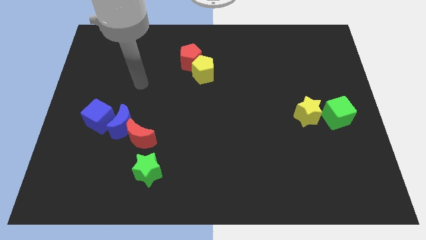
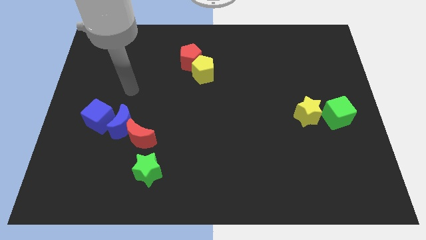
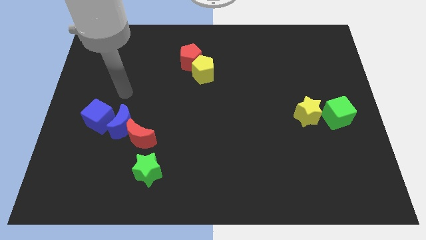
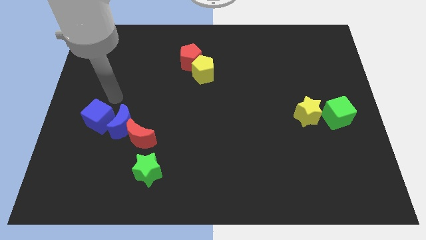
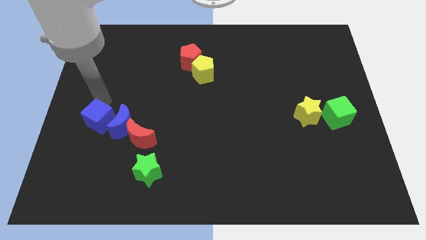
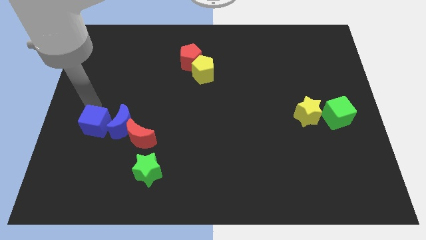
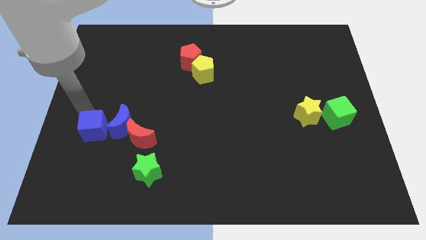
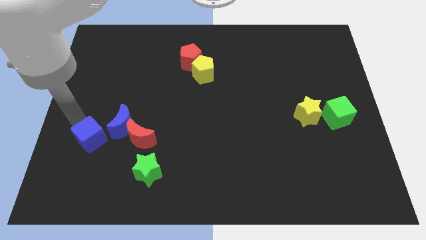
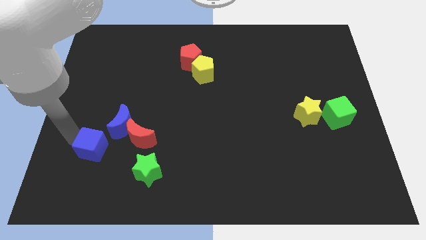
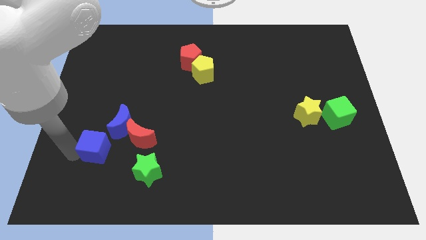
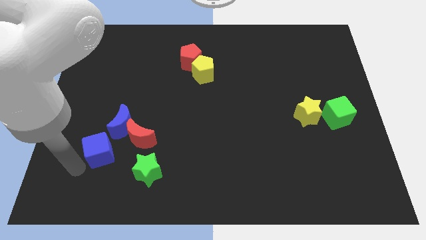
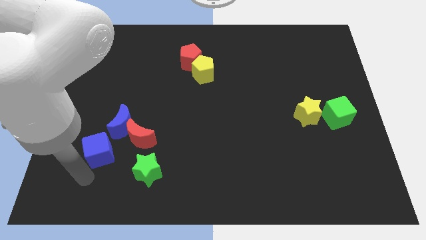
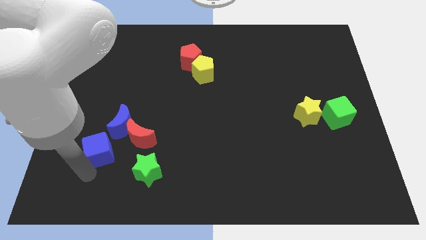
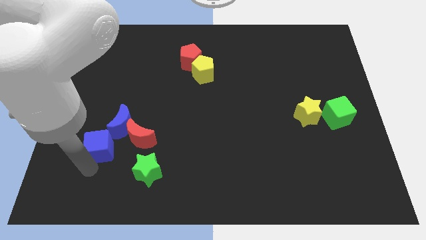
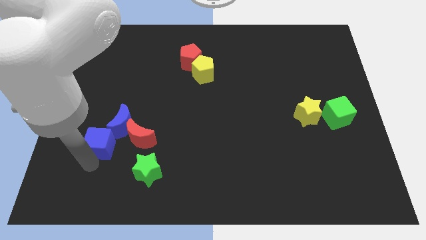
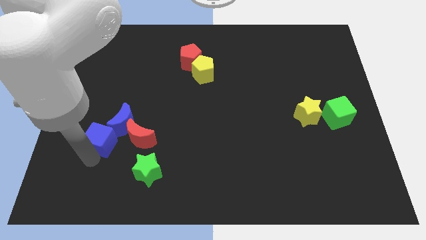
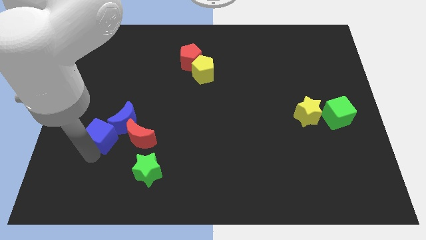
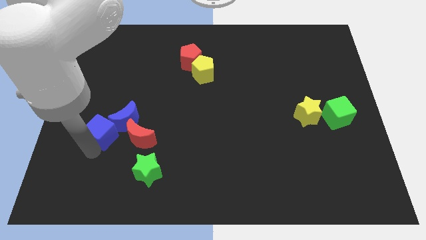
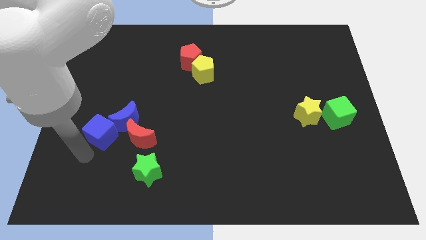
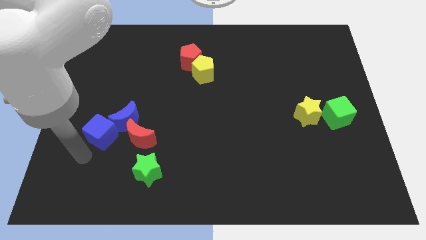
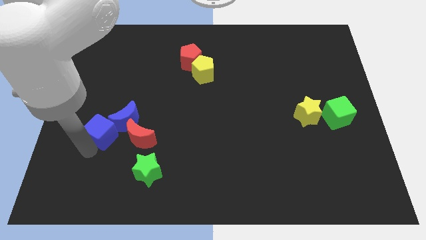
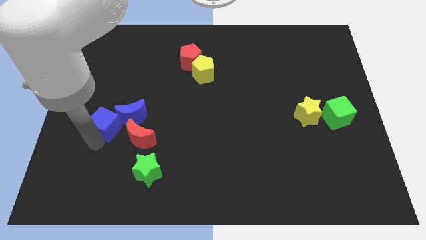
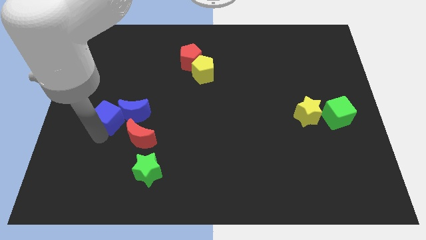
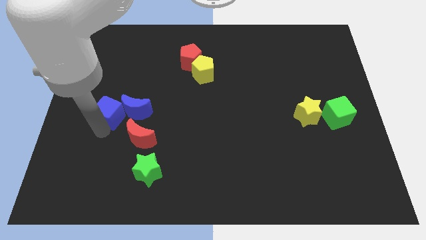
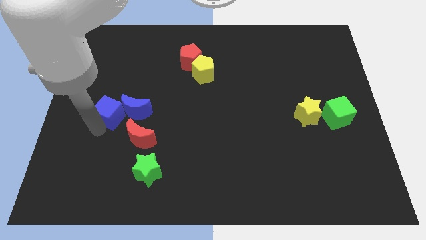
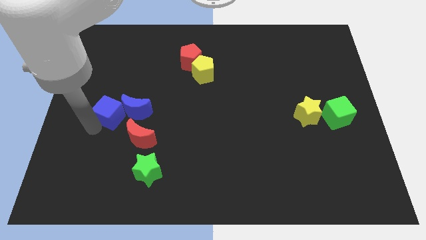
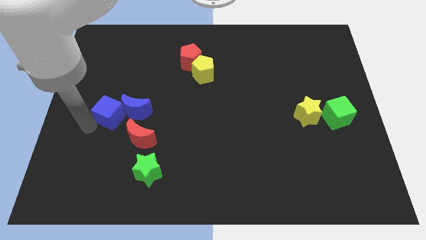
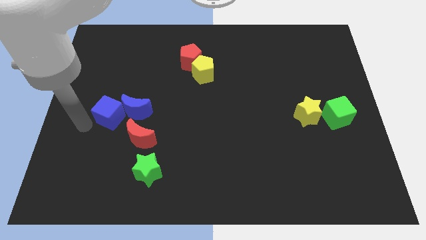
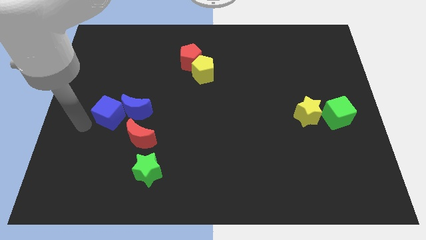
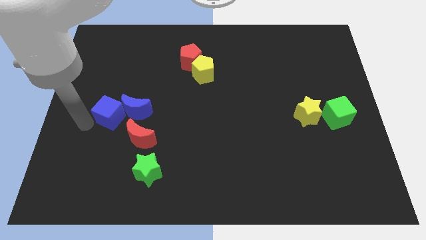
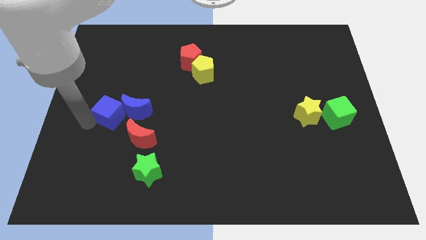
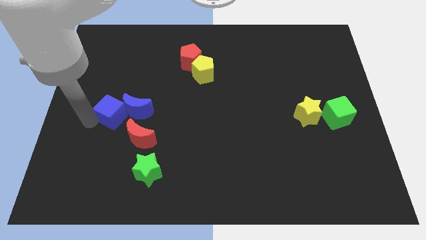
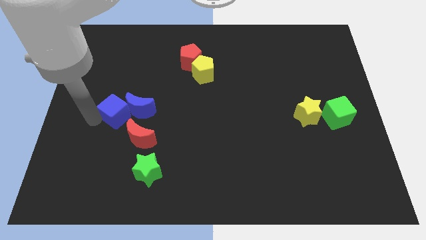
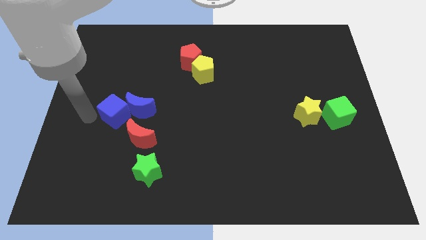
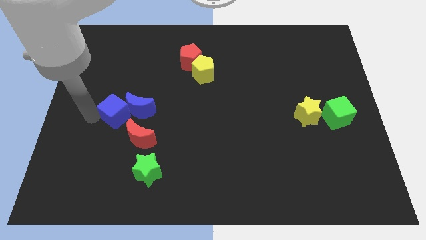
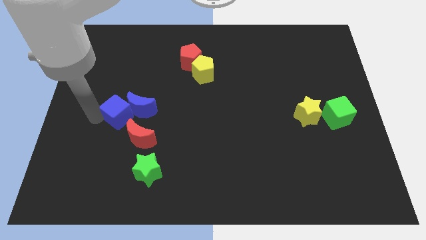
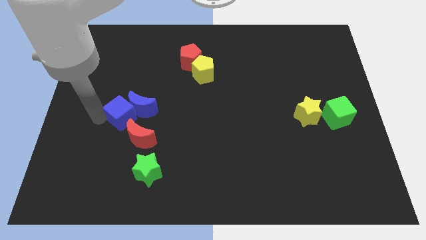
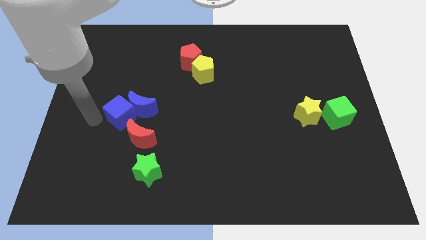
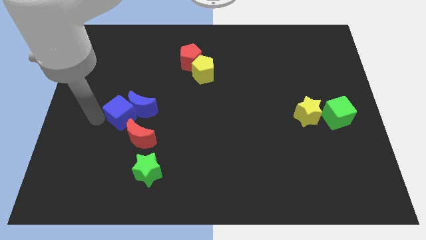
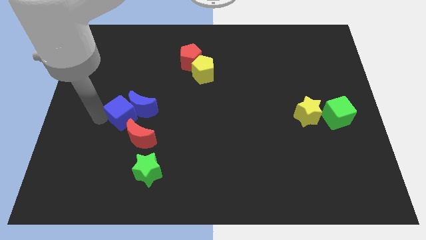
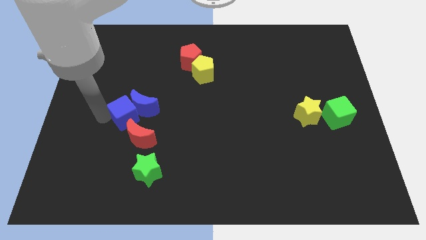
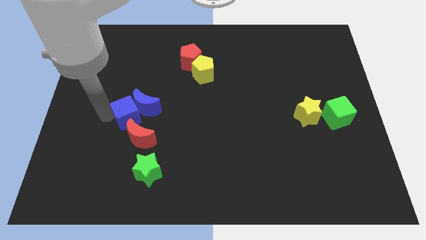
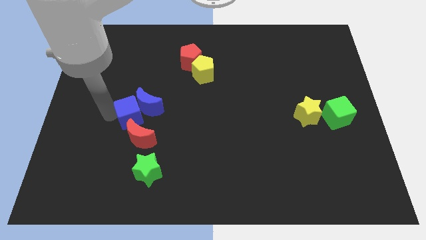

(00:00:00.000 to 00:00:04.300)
slightly slide the blue cube to the right

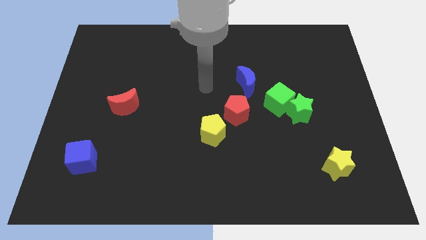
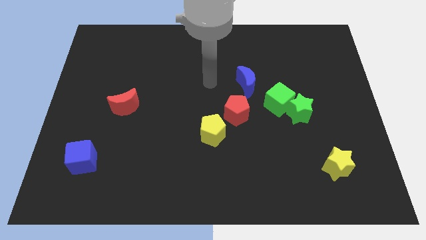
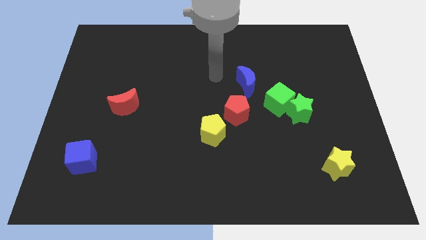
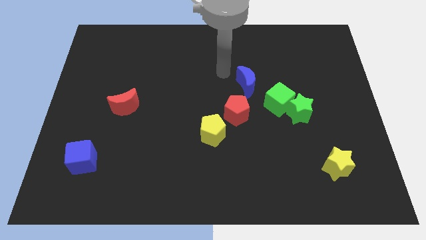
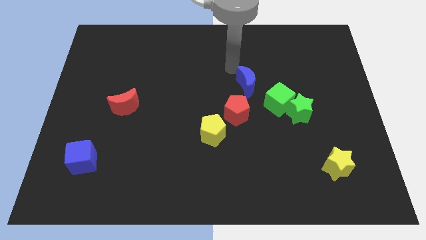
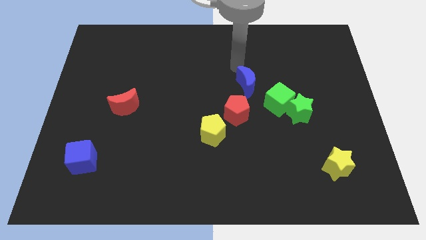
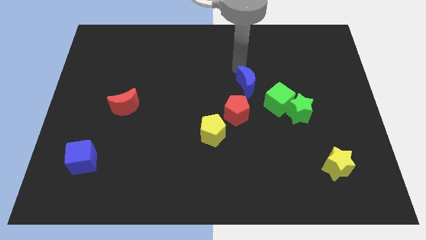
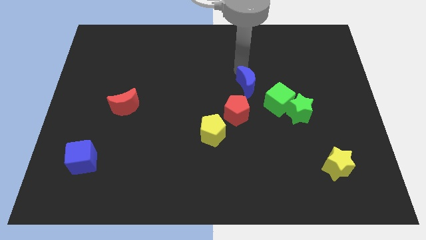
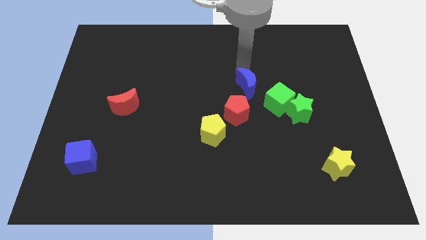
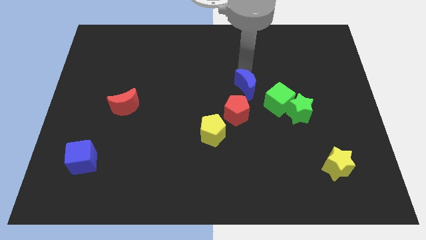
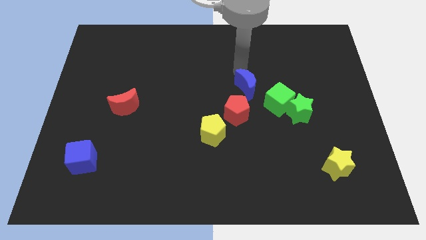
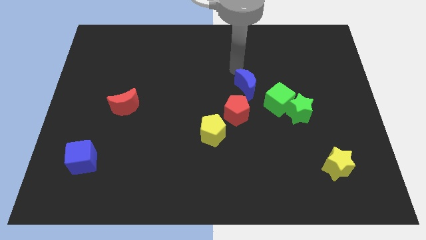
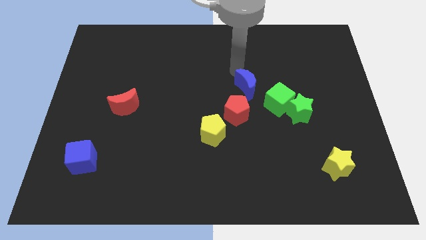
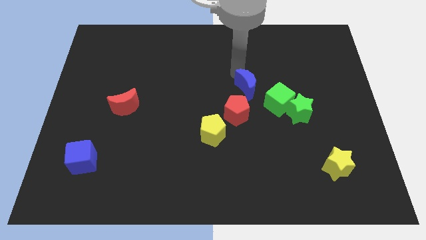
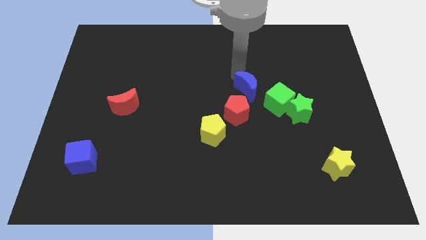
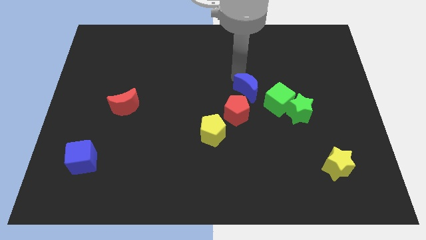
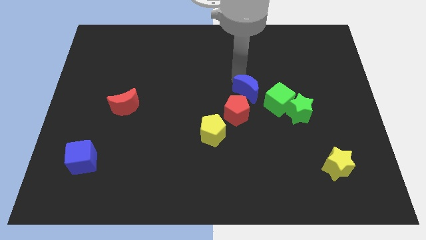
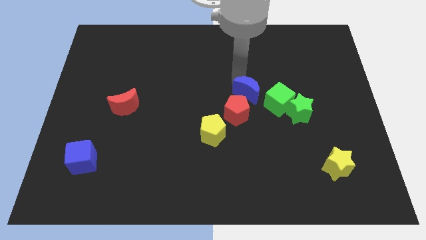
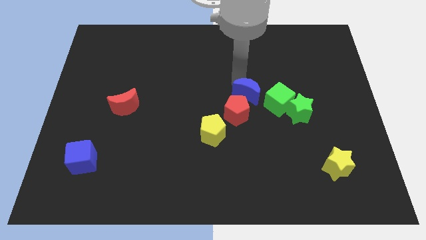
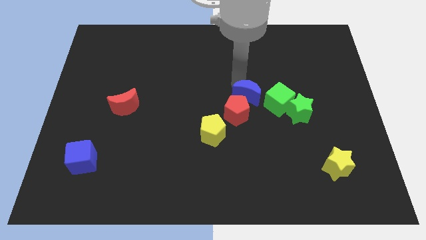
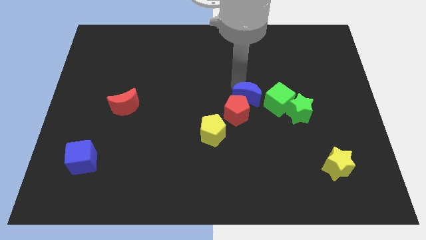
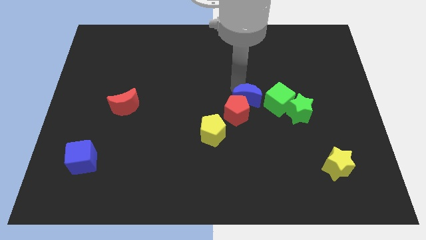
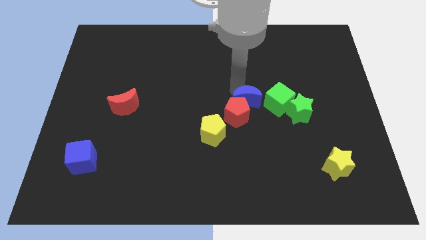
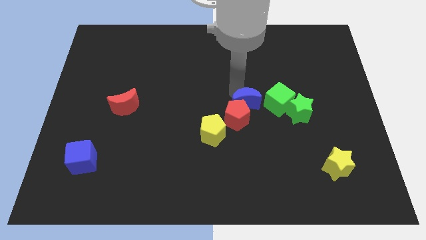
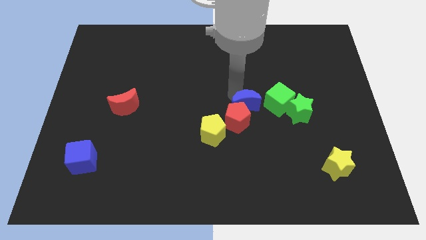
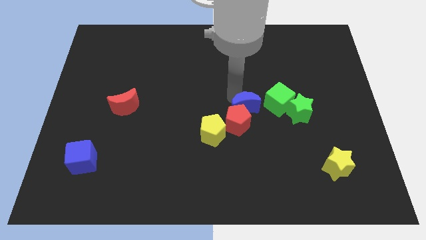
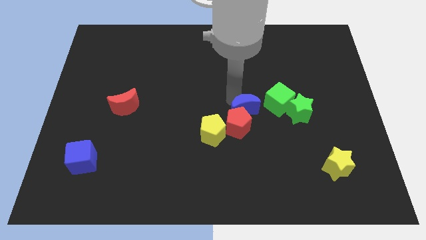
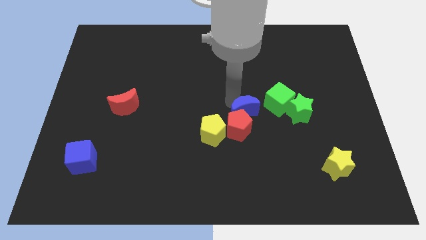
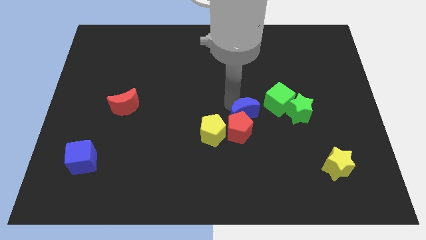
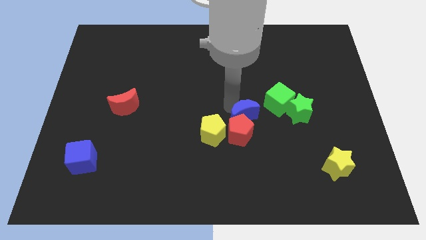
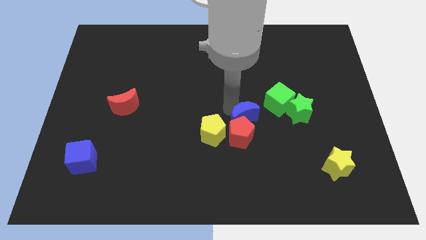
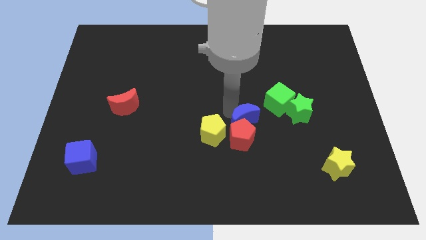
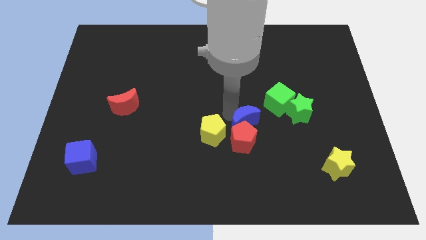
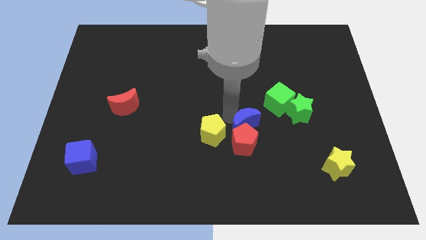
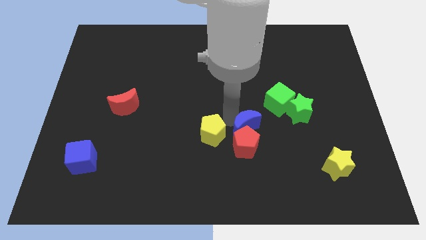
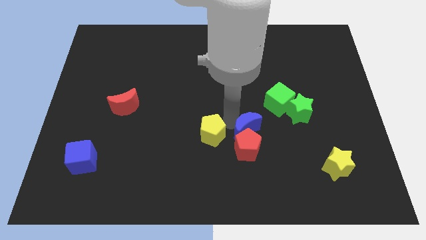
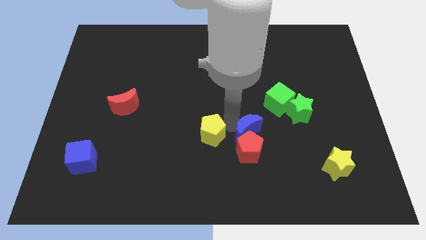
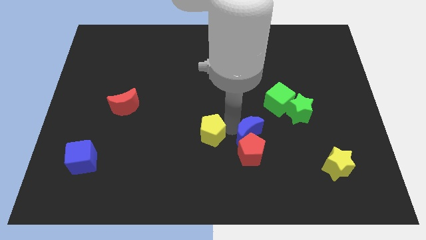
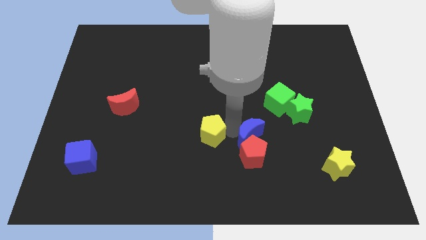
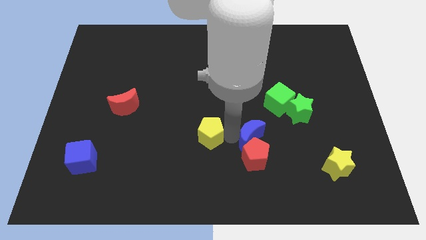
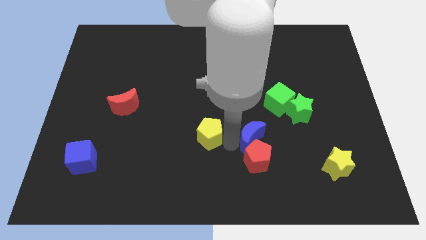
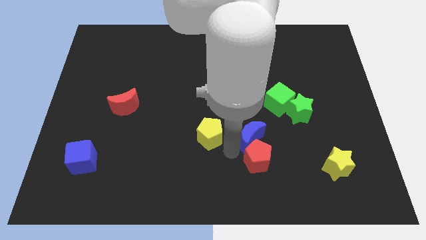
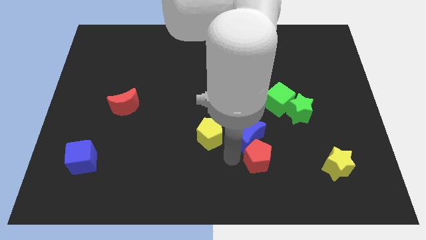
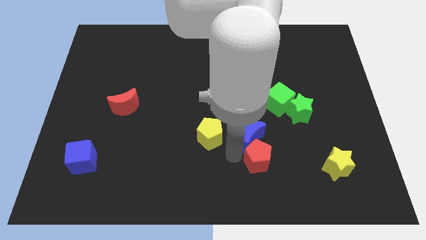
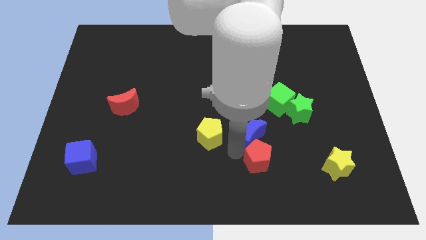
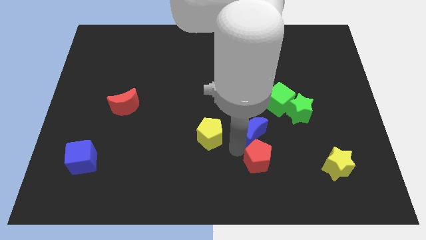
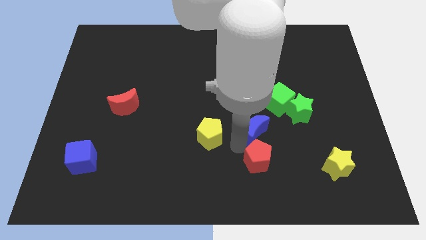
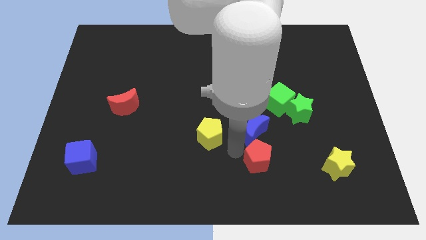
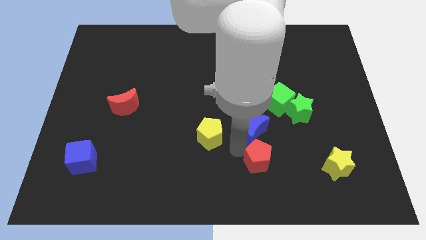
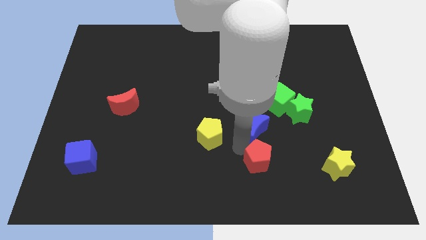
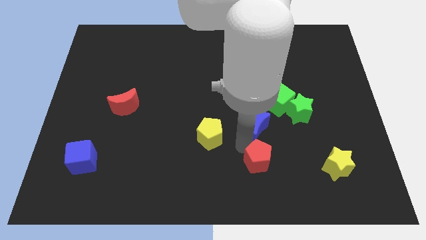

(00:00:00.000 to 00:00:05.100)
slightly push the blue moon down and to the right diagonally
